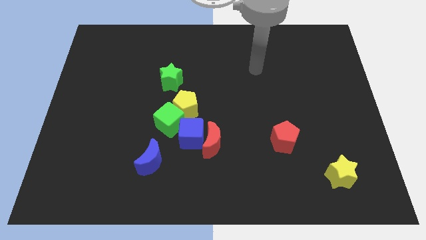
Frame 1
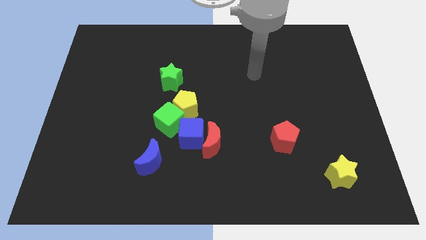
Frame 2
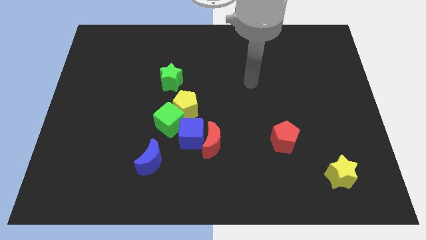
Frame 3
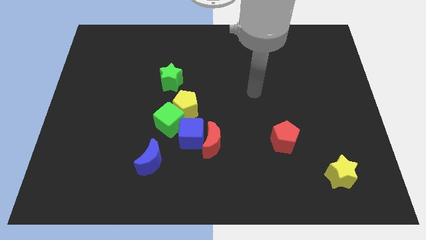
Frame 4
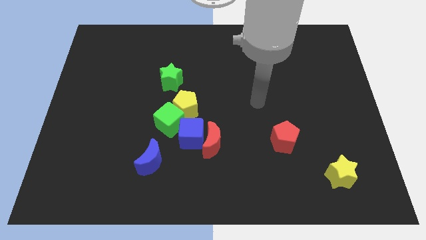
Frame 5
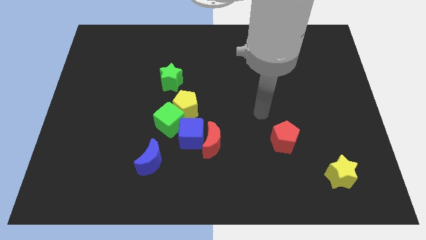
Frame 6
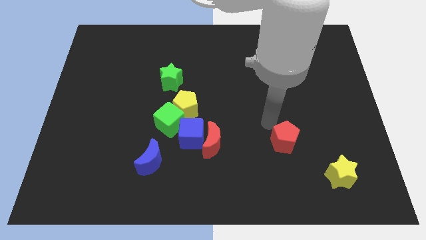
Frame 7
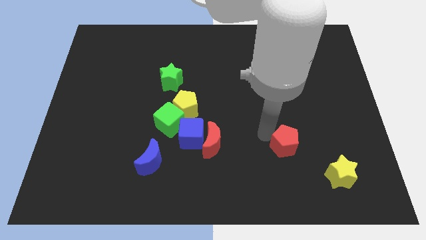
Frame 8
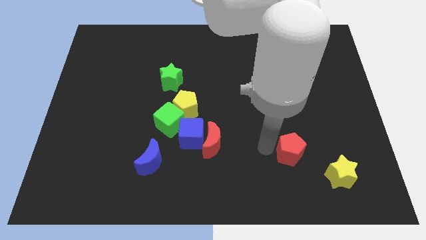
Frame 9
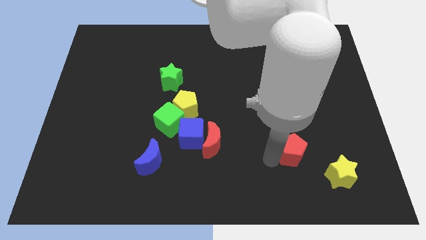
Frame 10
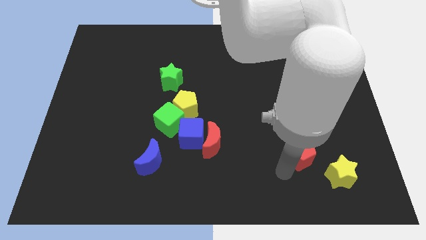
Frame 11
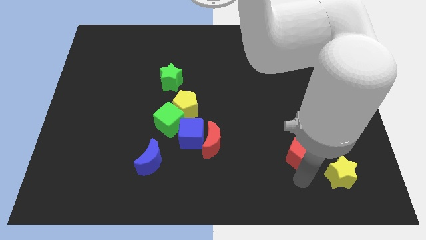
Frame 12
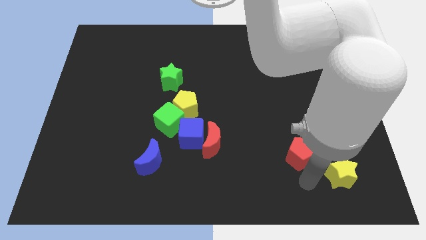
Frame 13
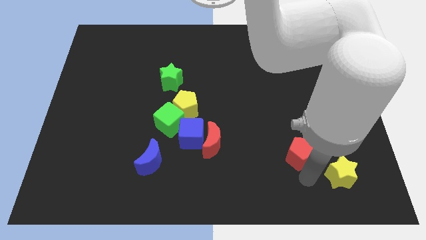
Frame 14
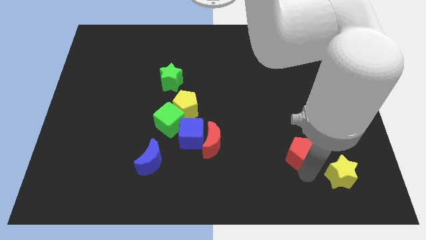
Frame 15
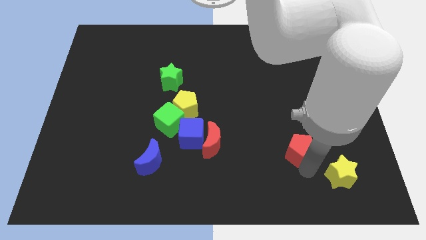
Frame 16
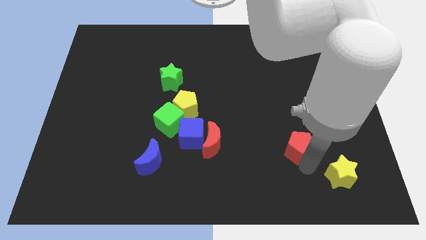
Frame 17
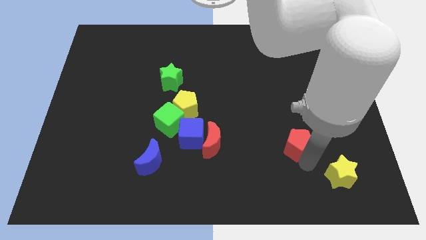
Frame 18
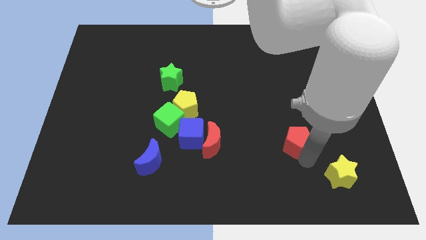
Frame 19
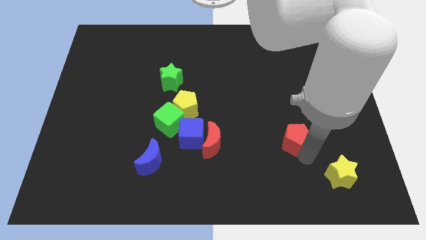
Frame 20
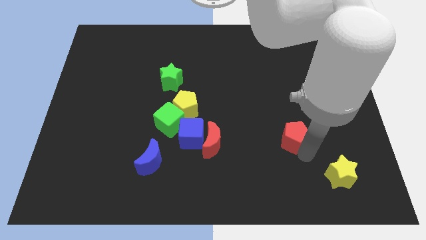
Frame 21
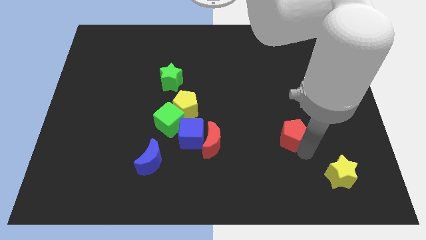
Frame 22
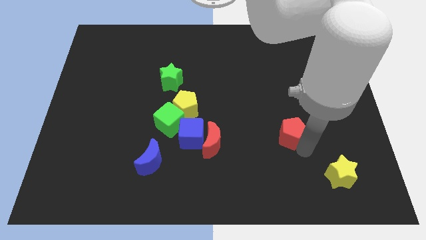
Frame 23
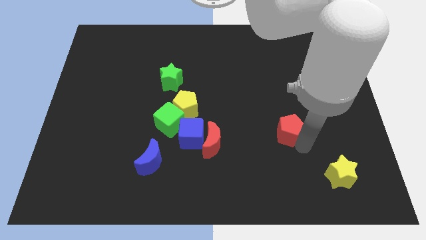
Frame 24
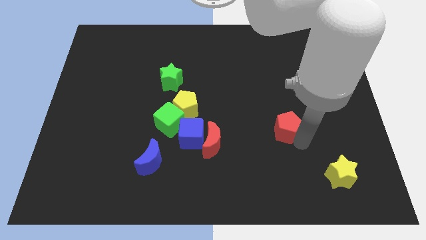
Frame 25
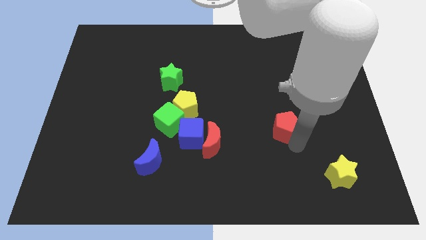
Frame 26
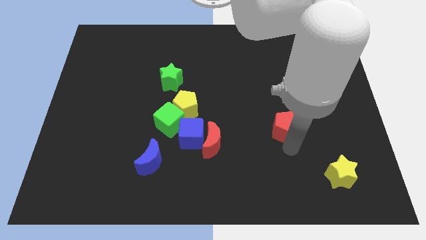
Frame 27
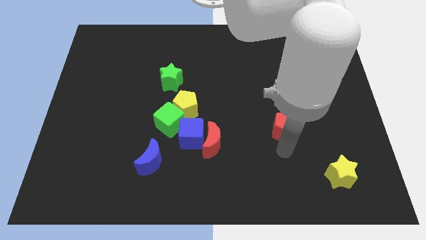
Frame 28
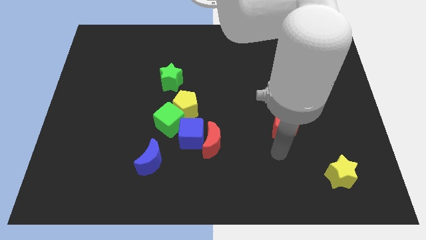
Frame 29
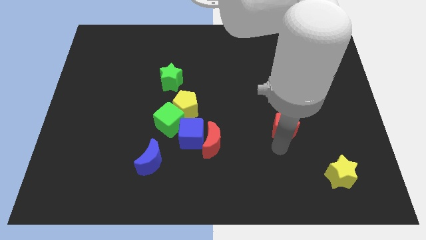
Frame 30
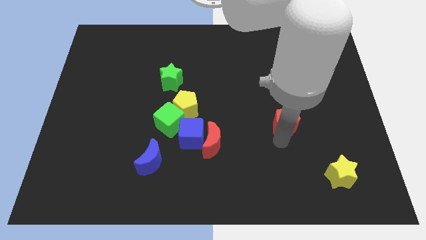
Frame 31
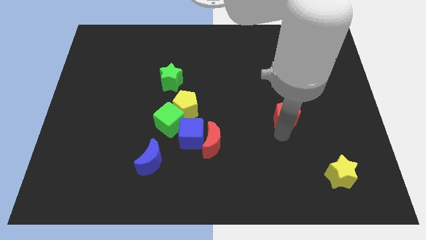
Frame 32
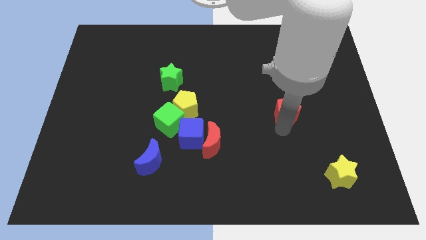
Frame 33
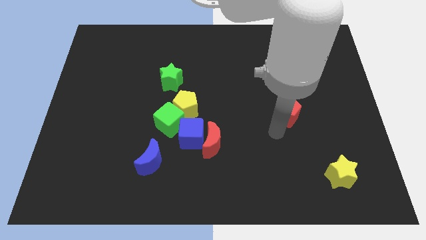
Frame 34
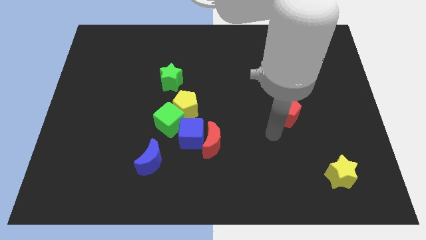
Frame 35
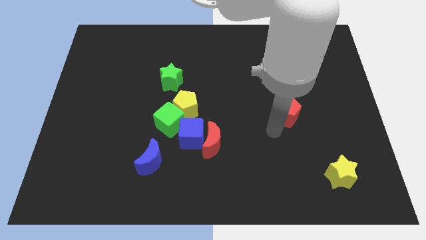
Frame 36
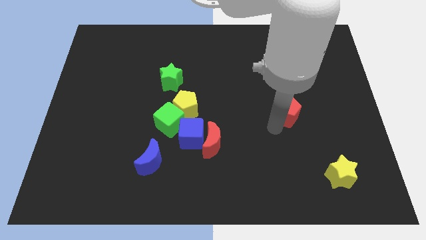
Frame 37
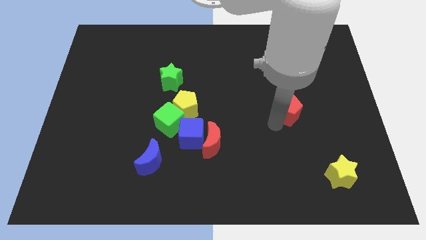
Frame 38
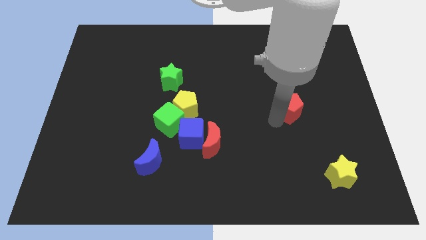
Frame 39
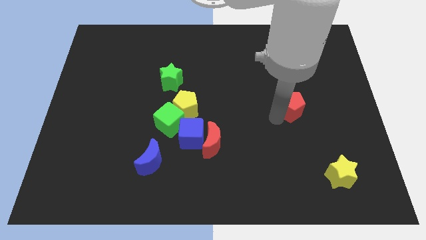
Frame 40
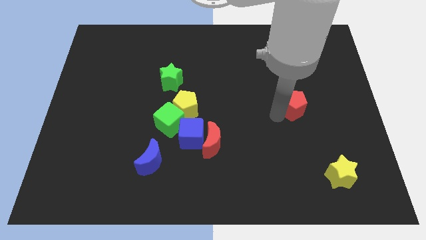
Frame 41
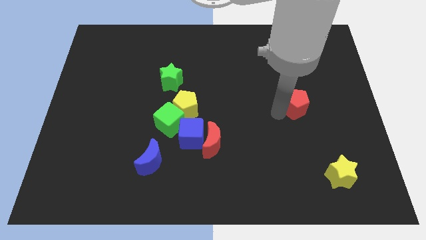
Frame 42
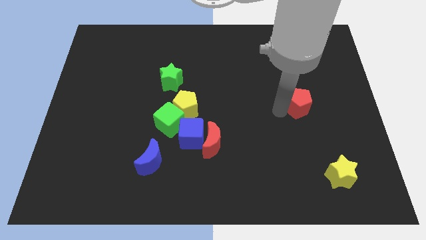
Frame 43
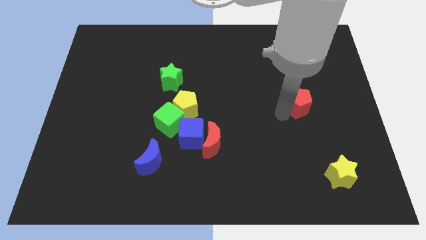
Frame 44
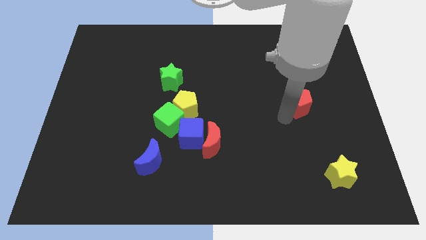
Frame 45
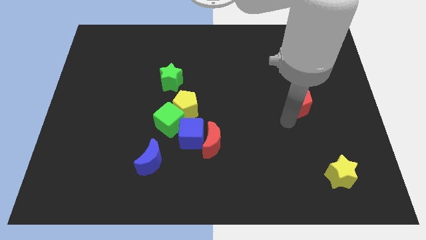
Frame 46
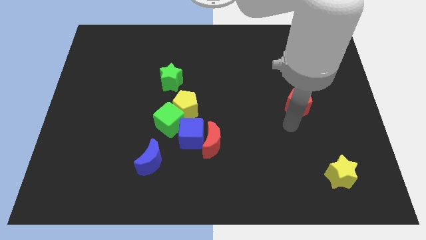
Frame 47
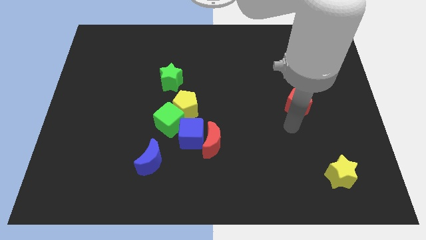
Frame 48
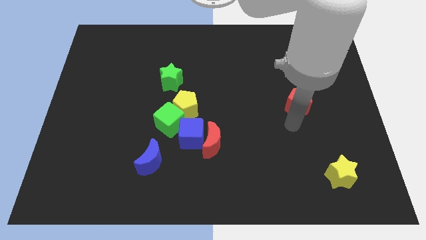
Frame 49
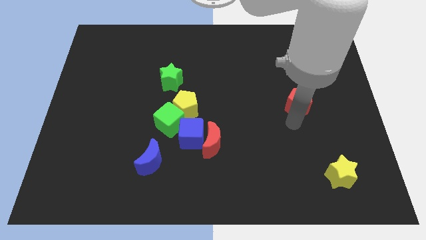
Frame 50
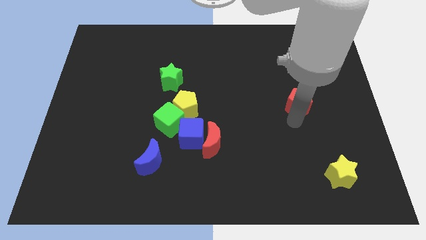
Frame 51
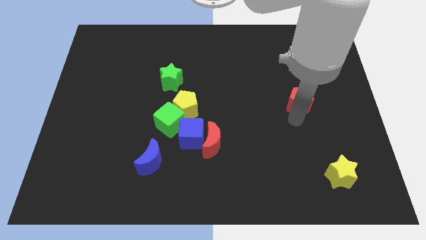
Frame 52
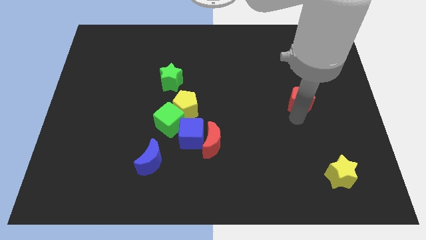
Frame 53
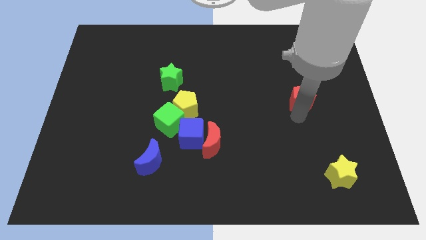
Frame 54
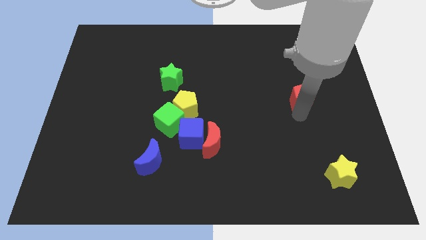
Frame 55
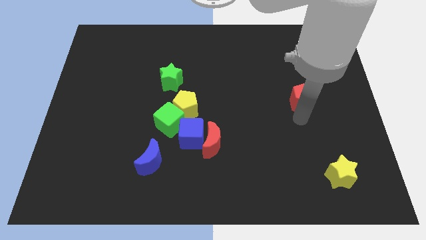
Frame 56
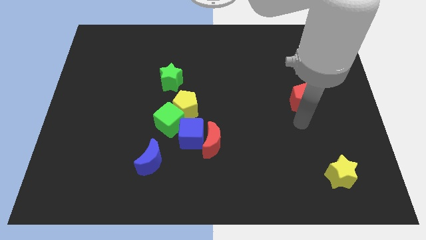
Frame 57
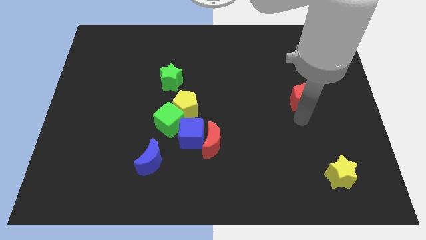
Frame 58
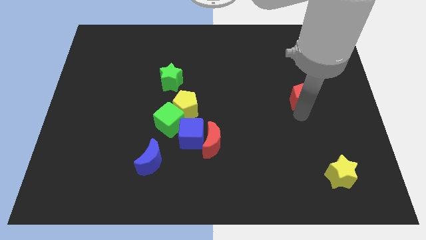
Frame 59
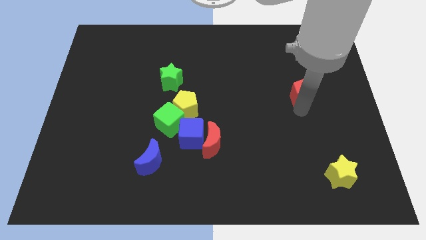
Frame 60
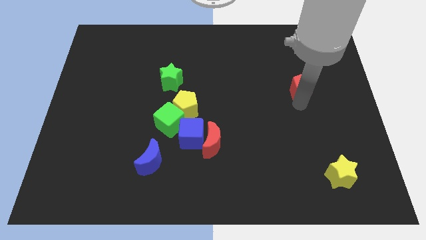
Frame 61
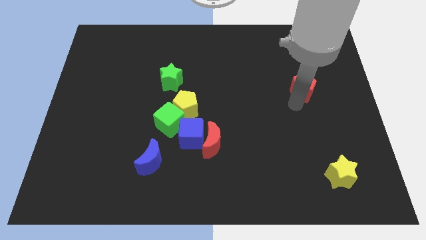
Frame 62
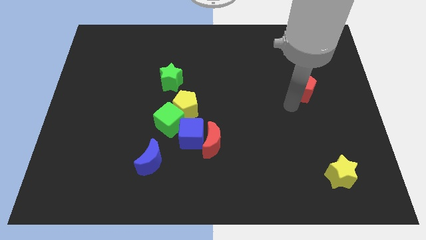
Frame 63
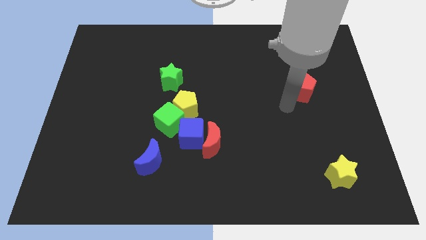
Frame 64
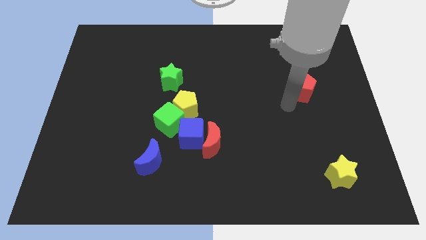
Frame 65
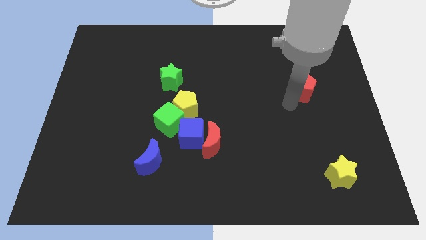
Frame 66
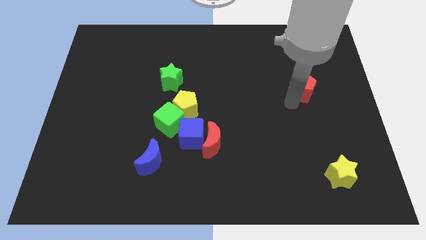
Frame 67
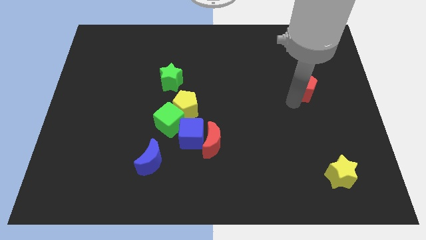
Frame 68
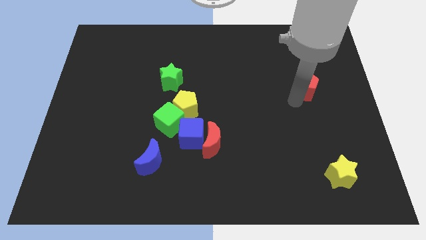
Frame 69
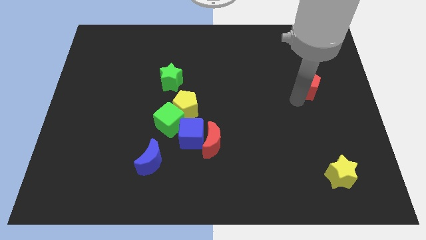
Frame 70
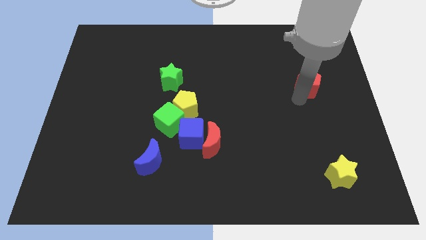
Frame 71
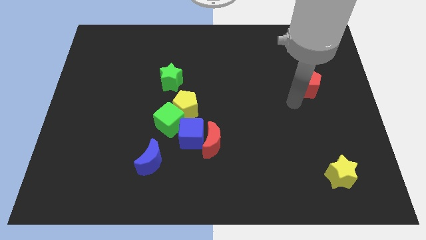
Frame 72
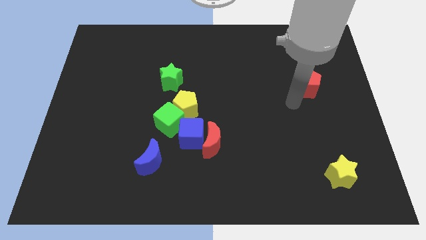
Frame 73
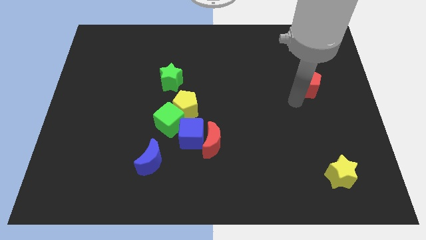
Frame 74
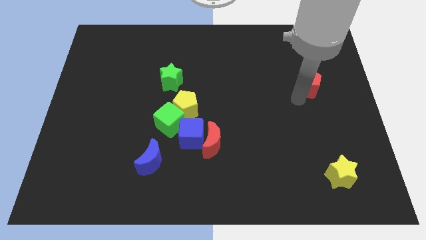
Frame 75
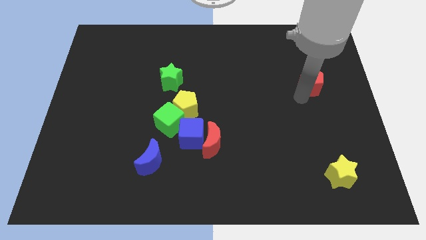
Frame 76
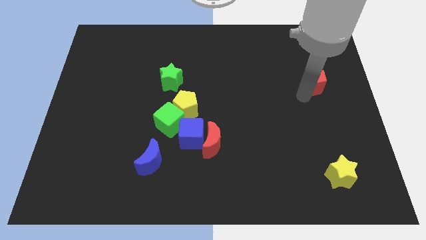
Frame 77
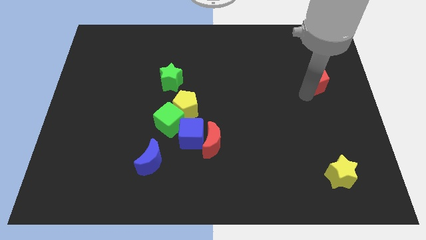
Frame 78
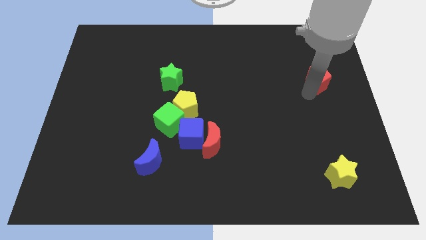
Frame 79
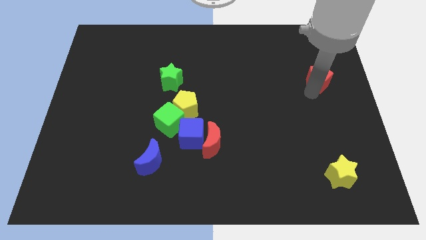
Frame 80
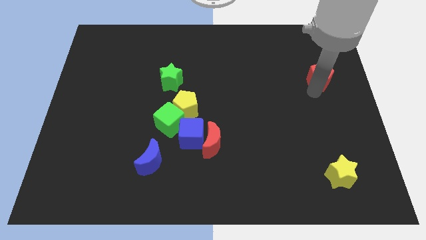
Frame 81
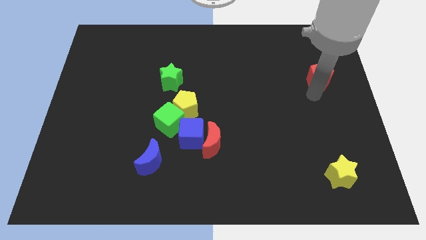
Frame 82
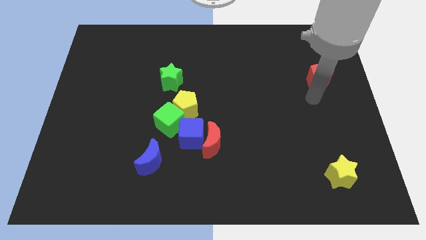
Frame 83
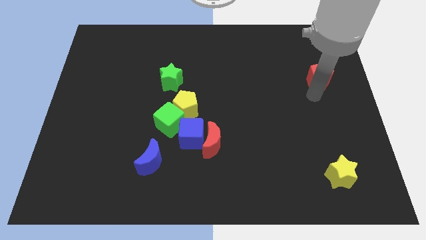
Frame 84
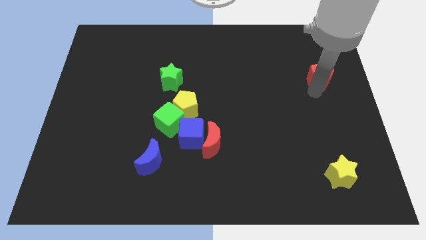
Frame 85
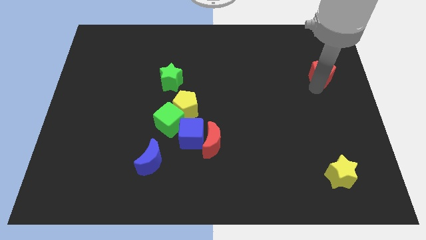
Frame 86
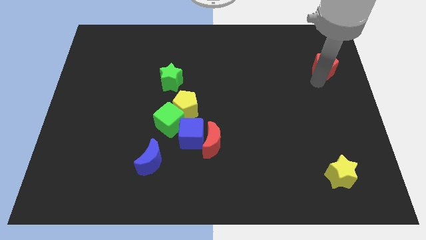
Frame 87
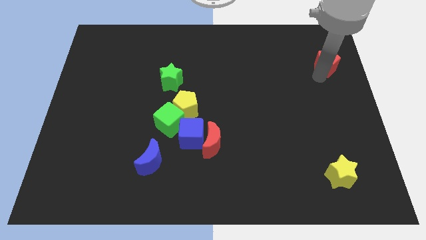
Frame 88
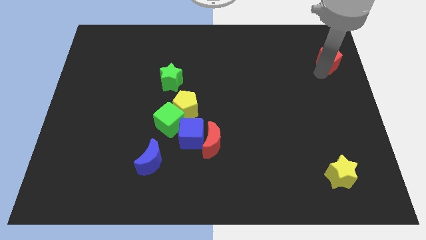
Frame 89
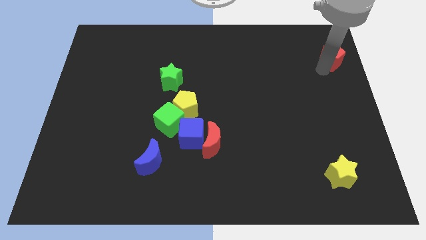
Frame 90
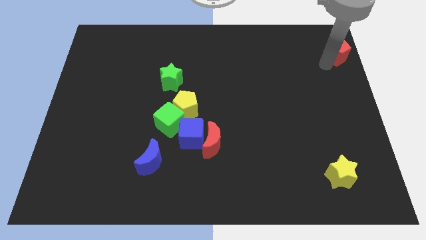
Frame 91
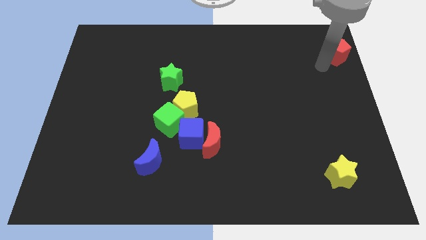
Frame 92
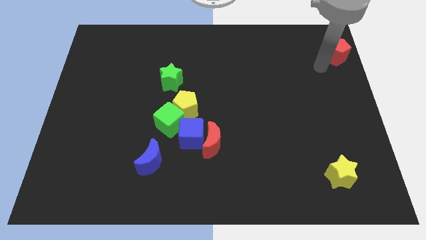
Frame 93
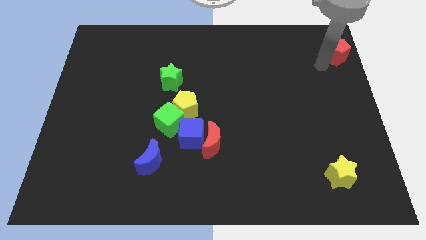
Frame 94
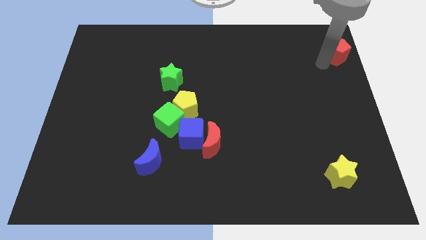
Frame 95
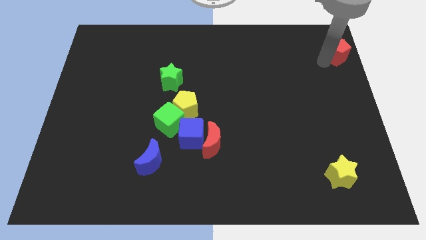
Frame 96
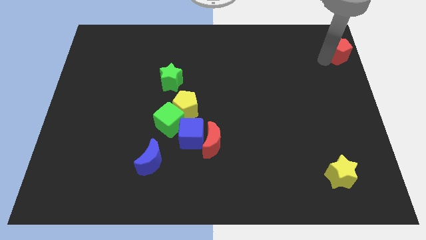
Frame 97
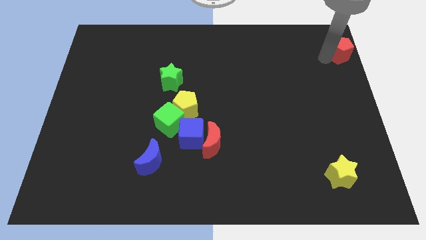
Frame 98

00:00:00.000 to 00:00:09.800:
put the red pentagon to the top right of the board
